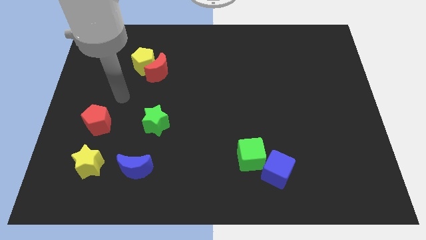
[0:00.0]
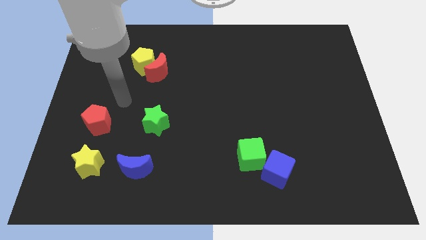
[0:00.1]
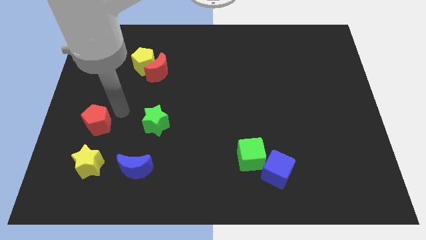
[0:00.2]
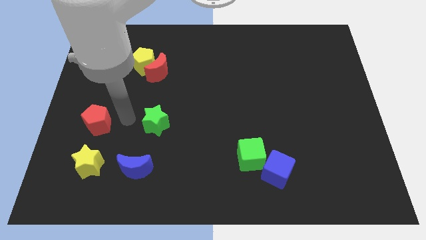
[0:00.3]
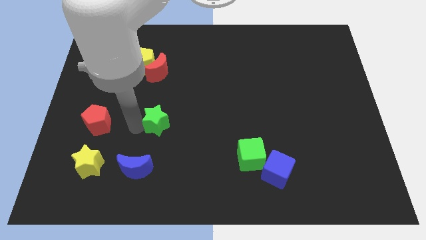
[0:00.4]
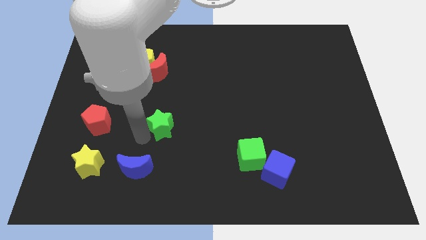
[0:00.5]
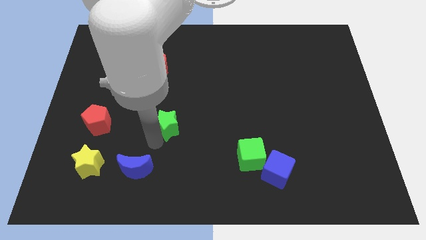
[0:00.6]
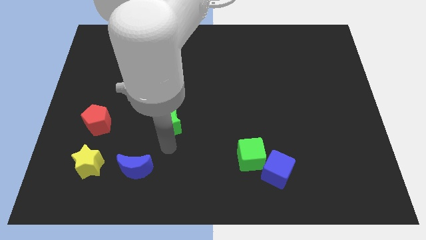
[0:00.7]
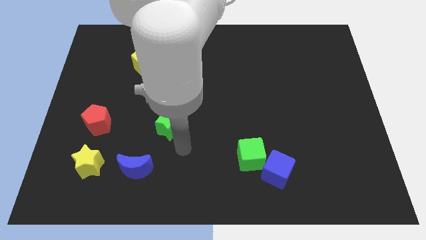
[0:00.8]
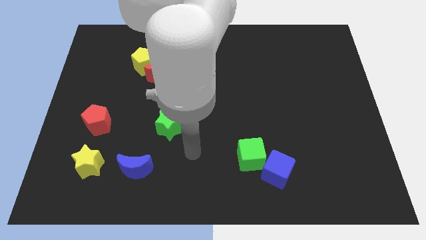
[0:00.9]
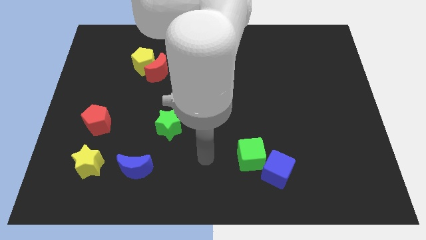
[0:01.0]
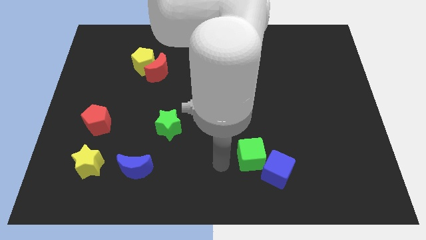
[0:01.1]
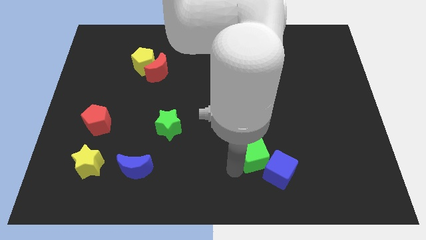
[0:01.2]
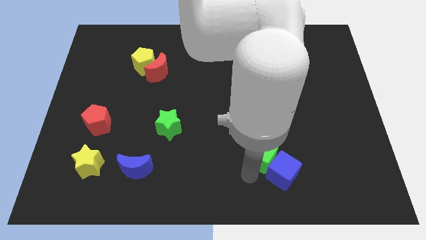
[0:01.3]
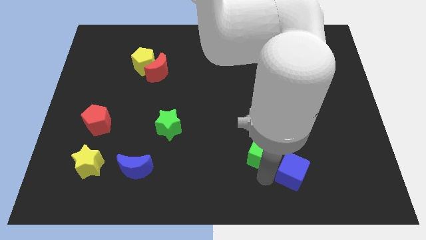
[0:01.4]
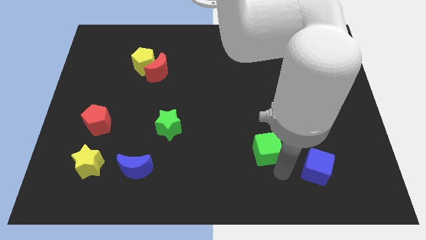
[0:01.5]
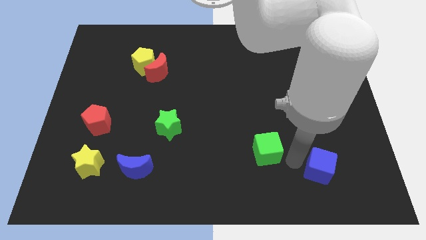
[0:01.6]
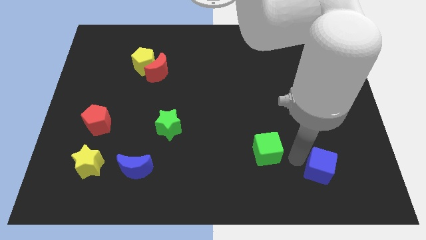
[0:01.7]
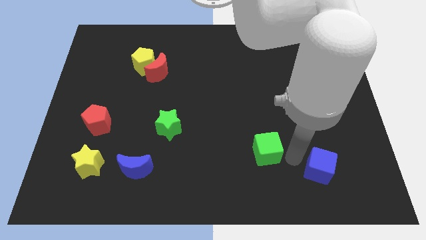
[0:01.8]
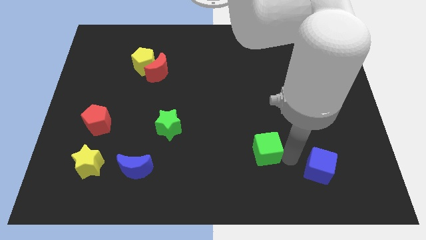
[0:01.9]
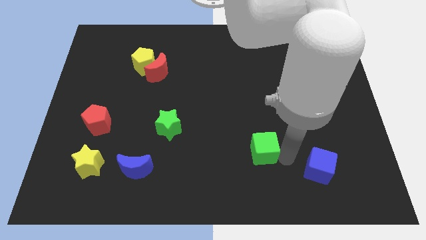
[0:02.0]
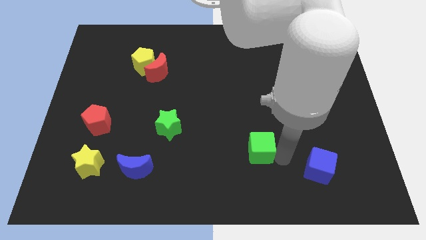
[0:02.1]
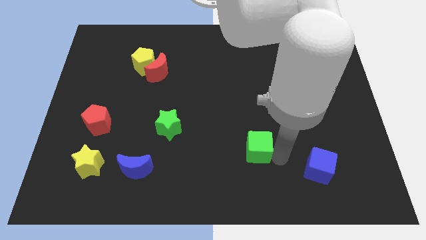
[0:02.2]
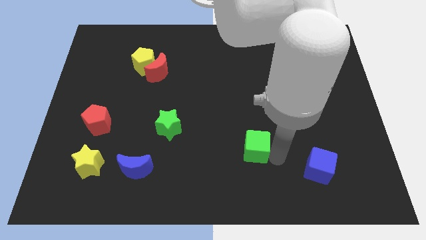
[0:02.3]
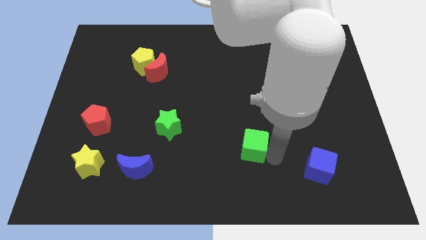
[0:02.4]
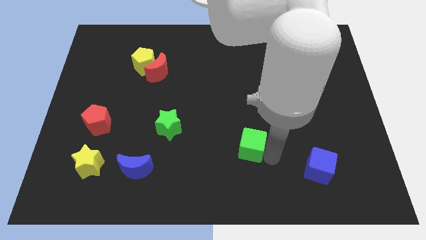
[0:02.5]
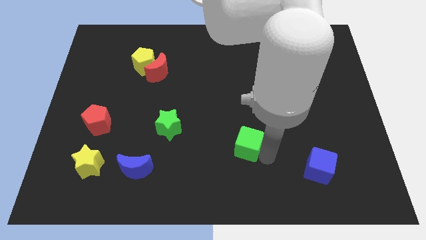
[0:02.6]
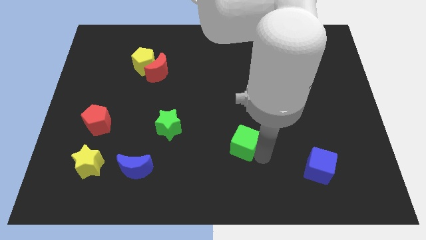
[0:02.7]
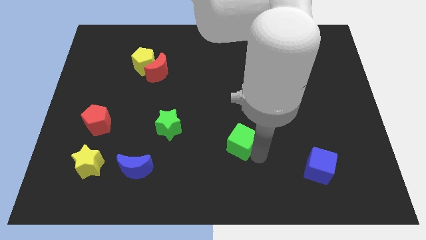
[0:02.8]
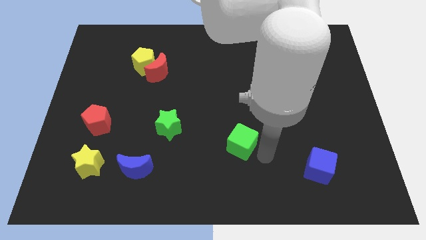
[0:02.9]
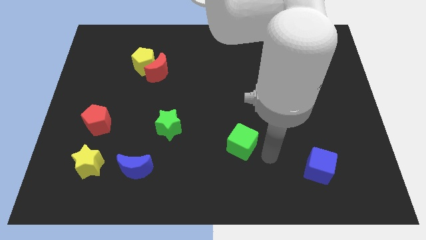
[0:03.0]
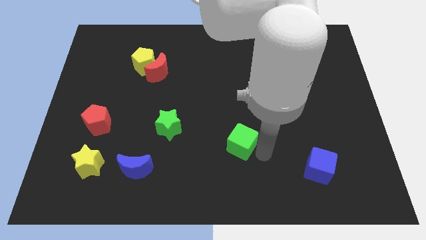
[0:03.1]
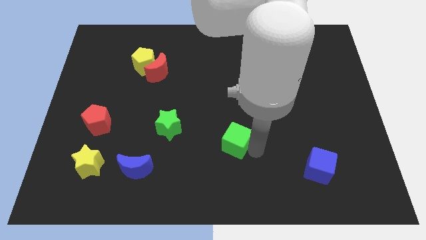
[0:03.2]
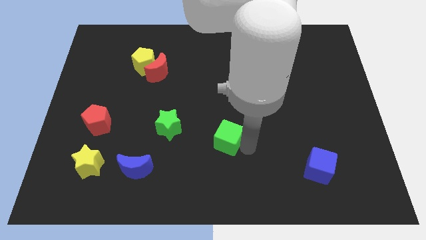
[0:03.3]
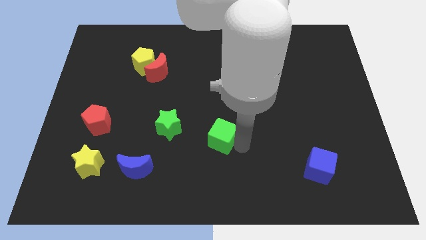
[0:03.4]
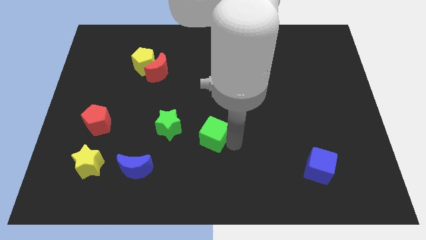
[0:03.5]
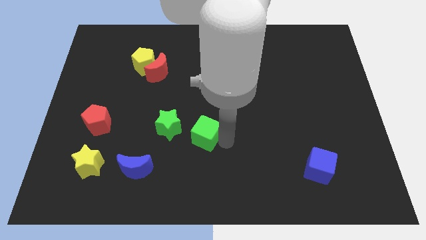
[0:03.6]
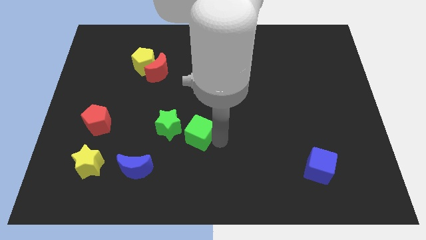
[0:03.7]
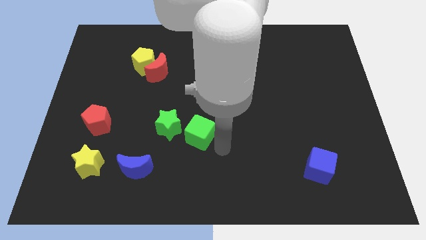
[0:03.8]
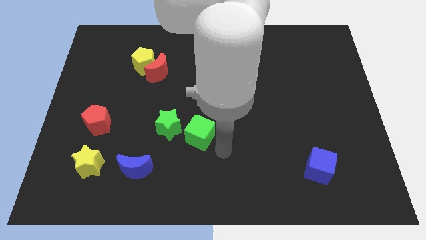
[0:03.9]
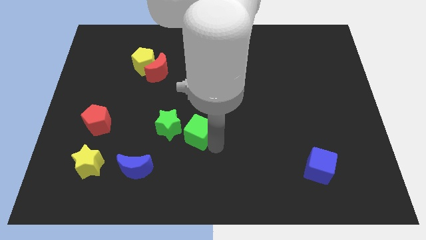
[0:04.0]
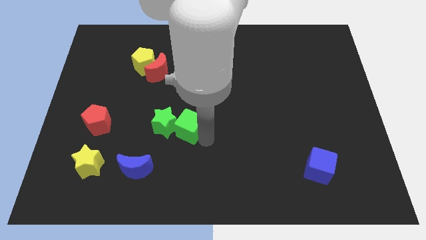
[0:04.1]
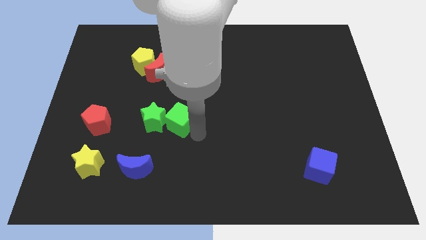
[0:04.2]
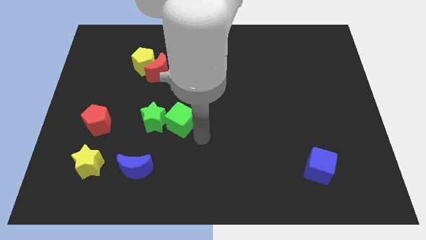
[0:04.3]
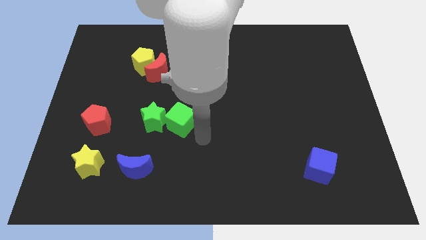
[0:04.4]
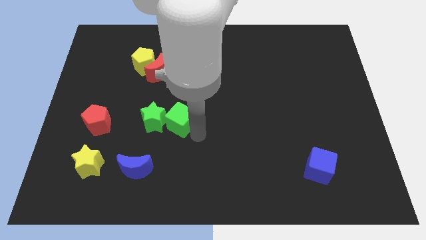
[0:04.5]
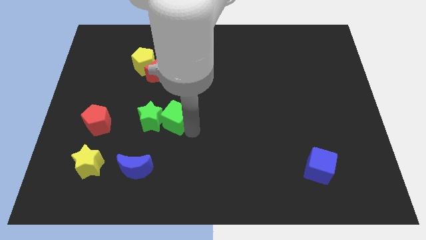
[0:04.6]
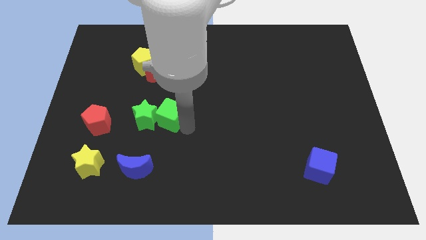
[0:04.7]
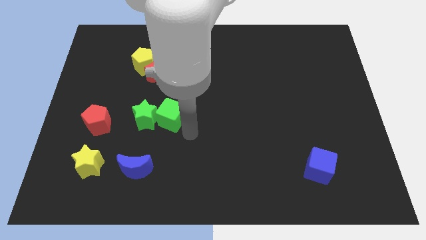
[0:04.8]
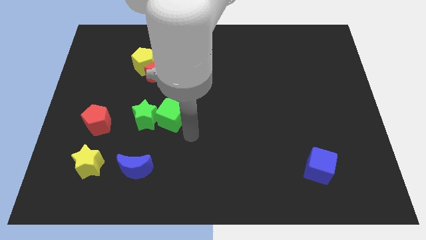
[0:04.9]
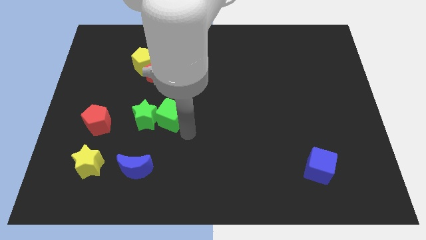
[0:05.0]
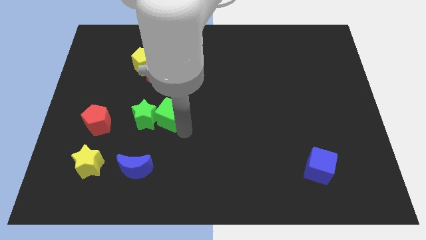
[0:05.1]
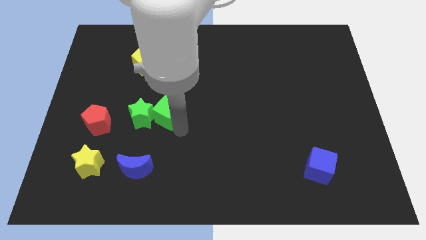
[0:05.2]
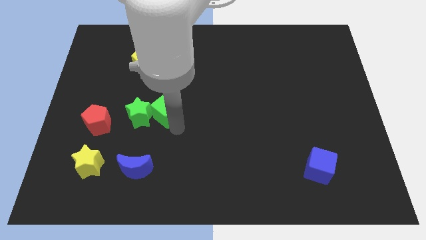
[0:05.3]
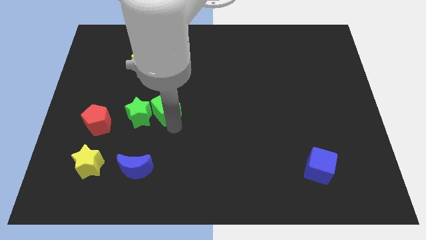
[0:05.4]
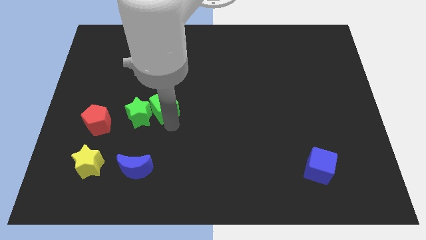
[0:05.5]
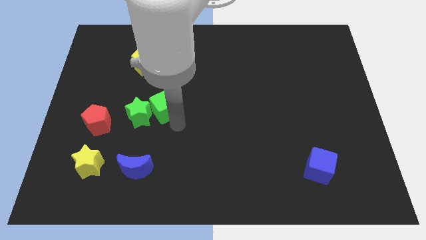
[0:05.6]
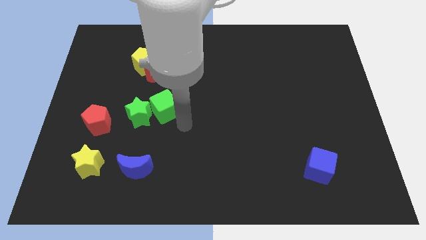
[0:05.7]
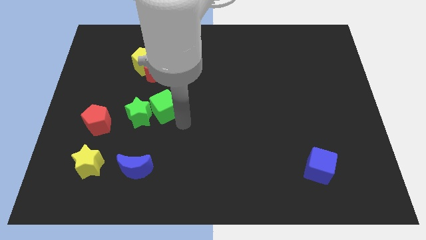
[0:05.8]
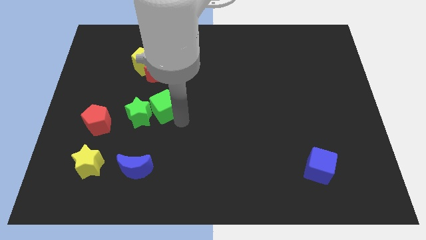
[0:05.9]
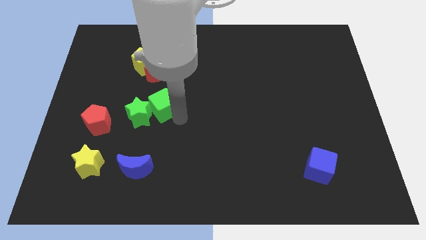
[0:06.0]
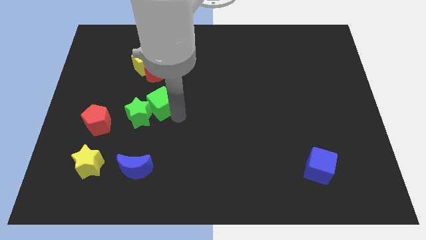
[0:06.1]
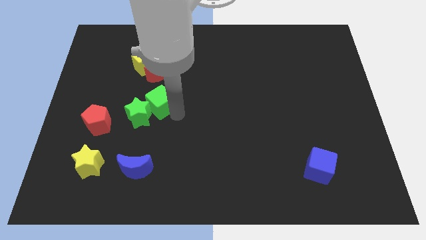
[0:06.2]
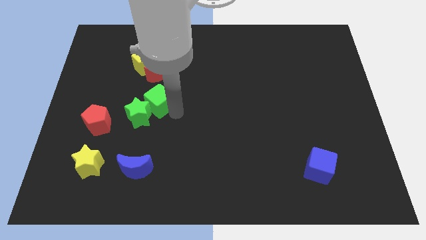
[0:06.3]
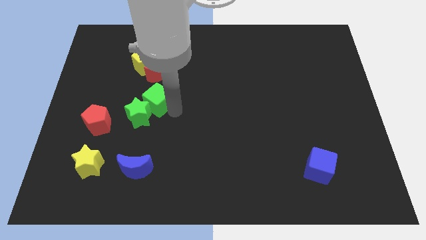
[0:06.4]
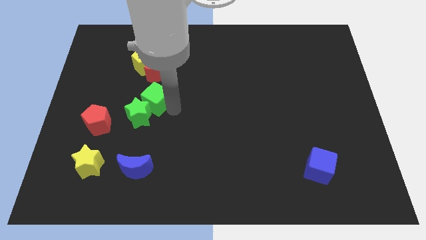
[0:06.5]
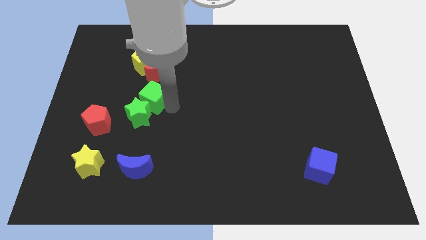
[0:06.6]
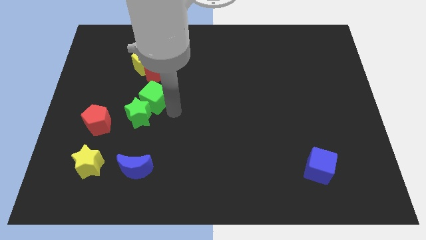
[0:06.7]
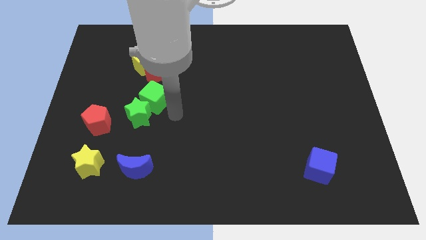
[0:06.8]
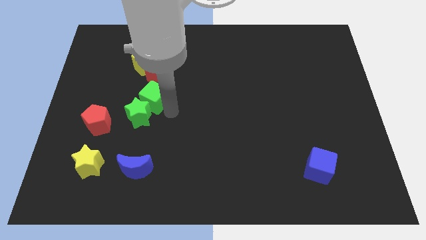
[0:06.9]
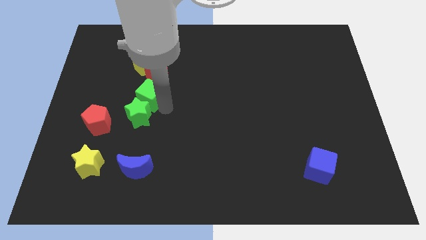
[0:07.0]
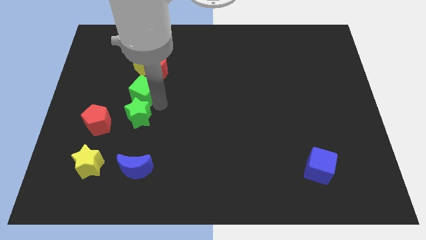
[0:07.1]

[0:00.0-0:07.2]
put the green cube to the bottom left side of the red moon

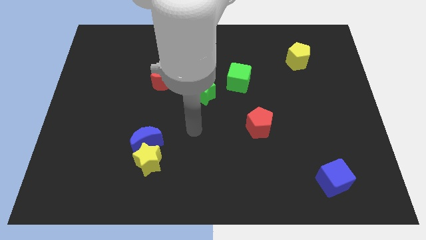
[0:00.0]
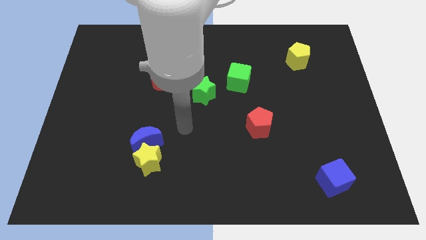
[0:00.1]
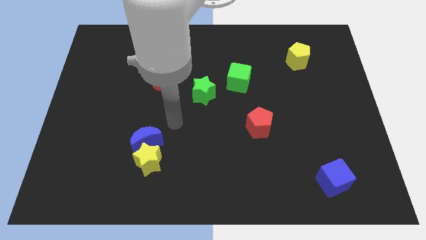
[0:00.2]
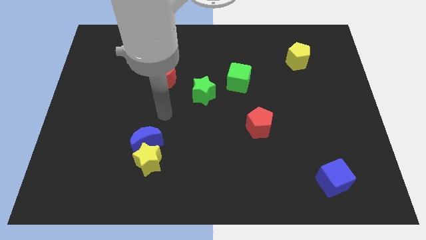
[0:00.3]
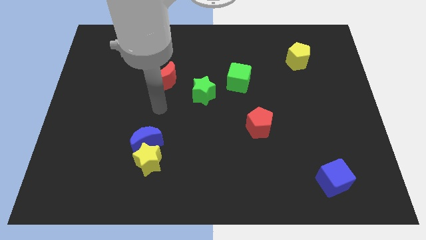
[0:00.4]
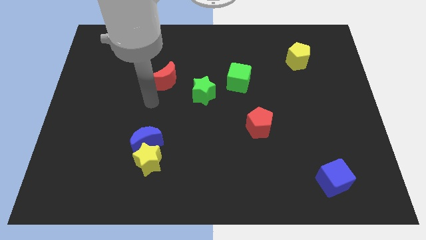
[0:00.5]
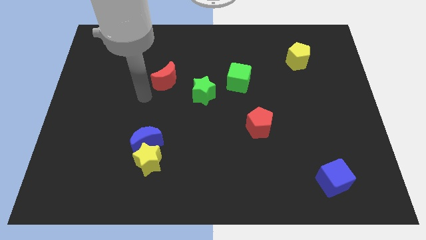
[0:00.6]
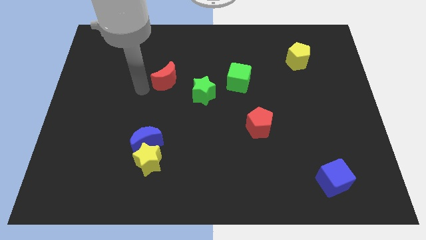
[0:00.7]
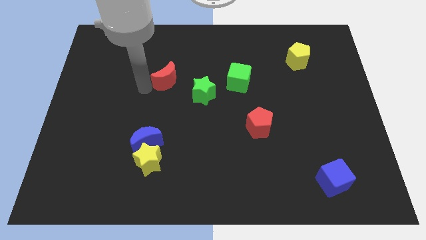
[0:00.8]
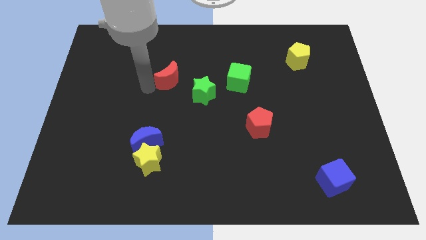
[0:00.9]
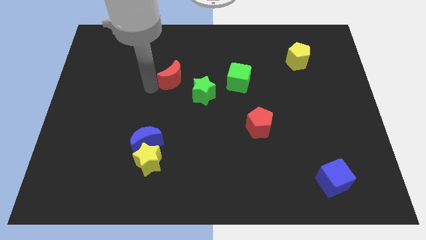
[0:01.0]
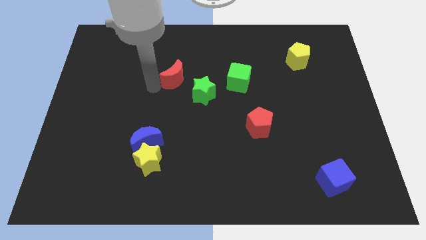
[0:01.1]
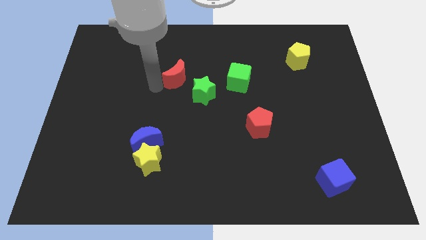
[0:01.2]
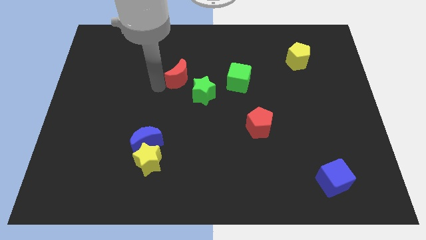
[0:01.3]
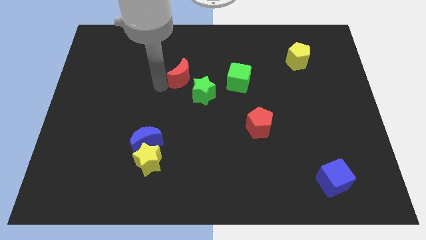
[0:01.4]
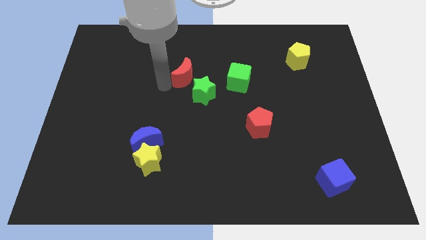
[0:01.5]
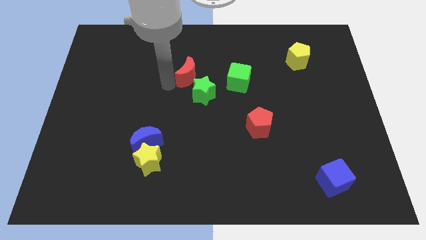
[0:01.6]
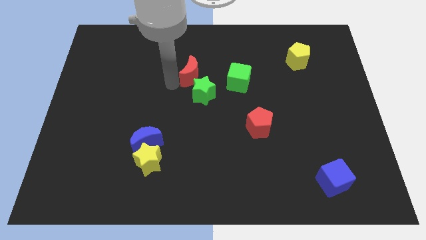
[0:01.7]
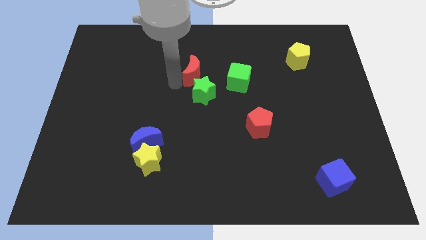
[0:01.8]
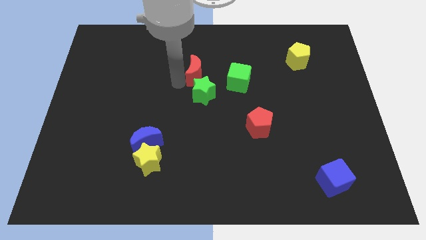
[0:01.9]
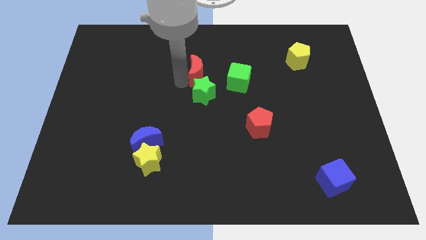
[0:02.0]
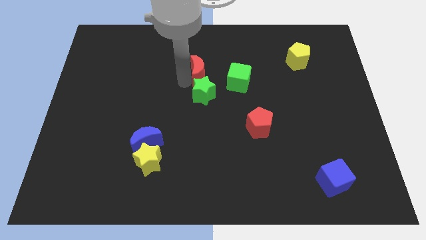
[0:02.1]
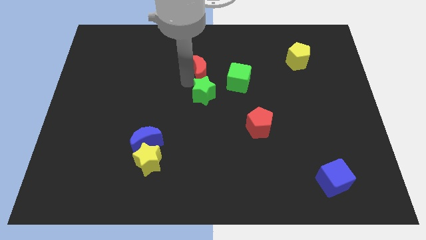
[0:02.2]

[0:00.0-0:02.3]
put the red moon to the top left of the green cube
